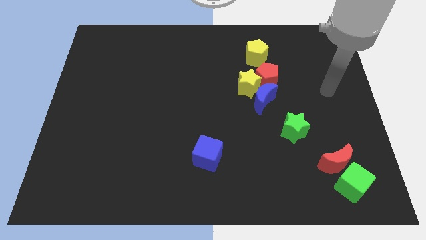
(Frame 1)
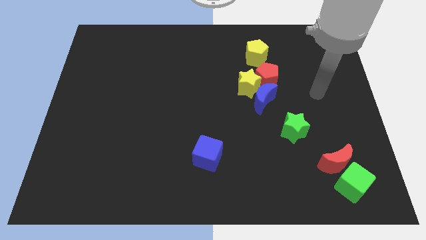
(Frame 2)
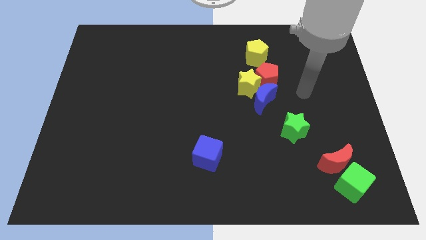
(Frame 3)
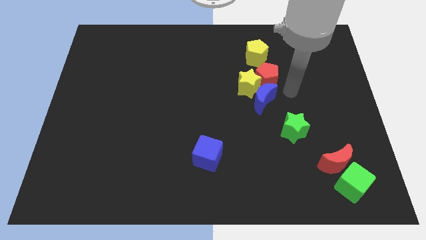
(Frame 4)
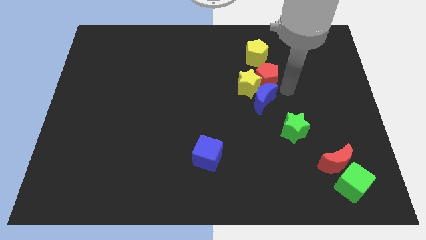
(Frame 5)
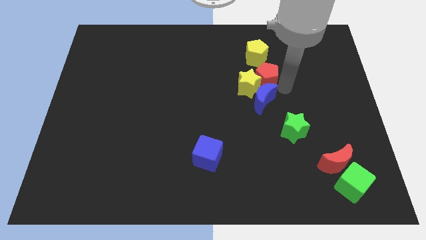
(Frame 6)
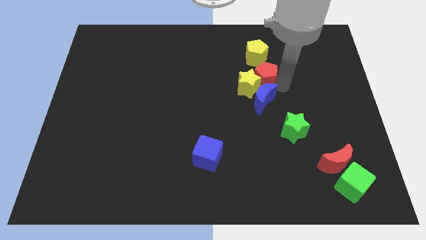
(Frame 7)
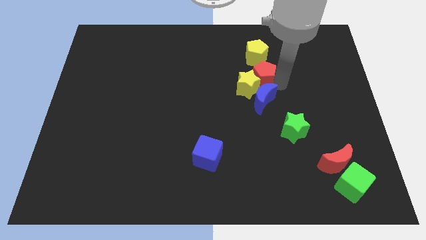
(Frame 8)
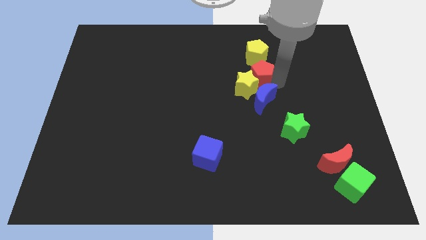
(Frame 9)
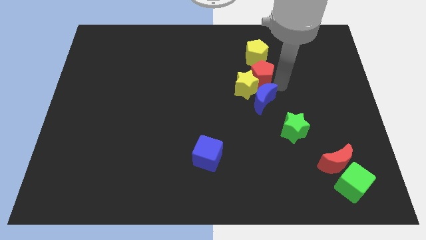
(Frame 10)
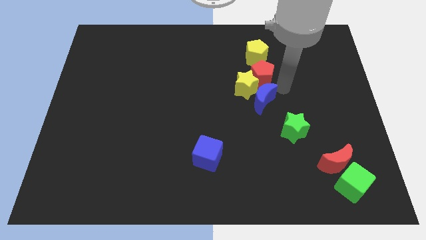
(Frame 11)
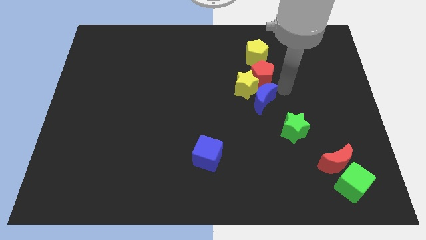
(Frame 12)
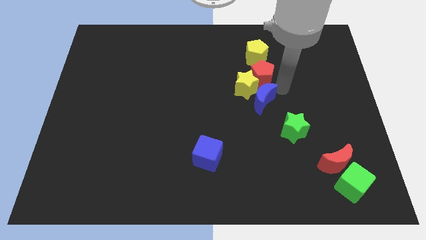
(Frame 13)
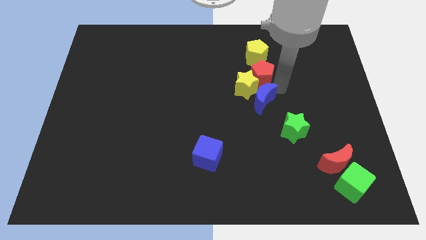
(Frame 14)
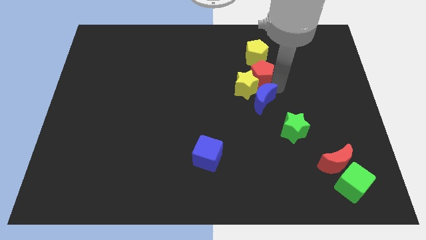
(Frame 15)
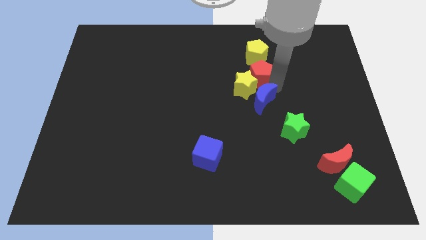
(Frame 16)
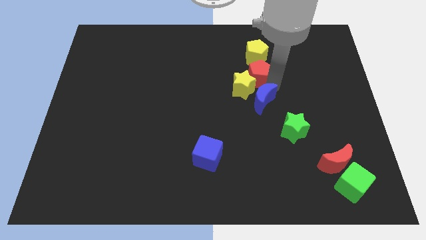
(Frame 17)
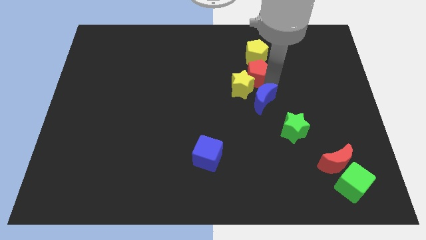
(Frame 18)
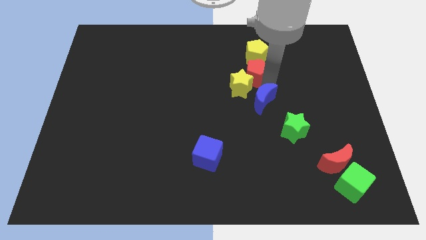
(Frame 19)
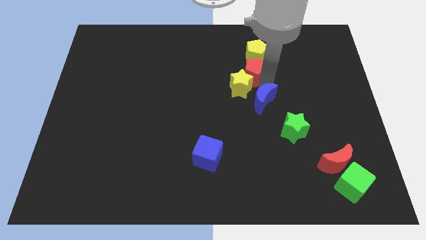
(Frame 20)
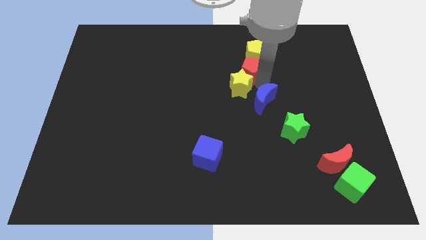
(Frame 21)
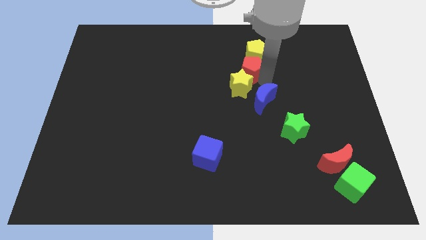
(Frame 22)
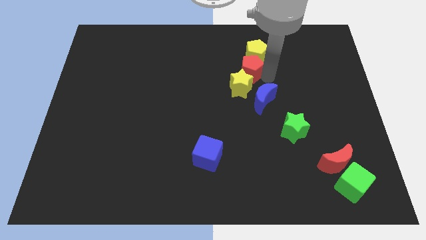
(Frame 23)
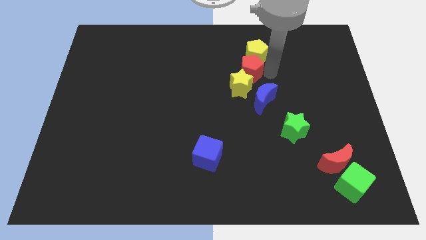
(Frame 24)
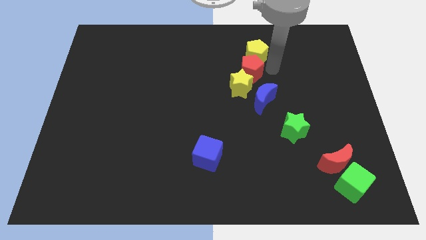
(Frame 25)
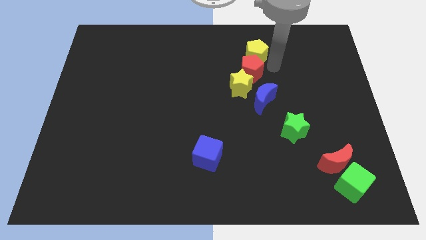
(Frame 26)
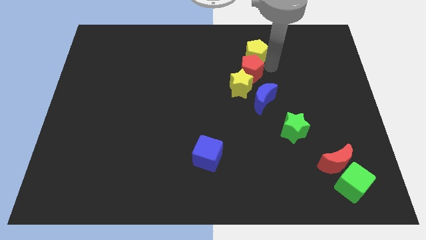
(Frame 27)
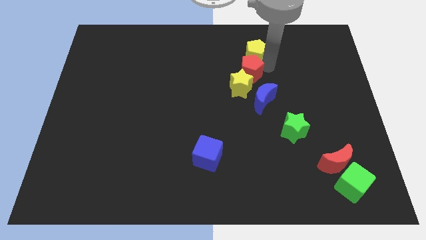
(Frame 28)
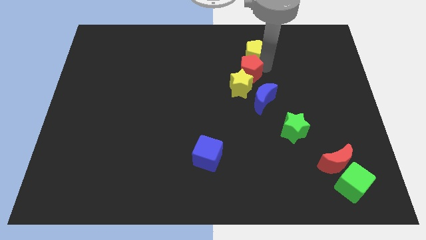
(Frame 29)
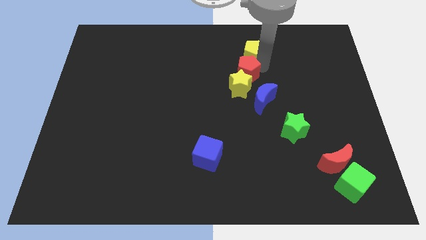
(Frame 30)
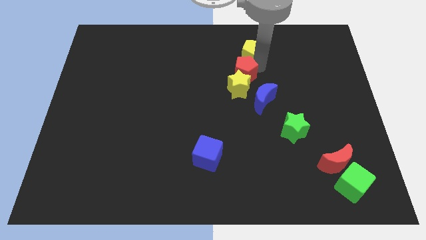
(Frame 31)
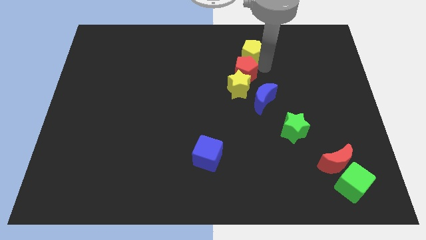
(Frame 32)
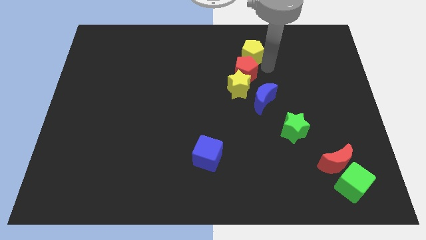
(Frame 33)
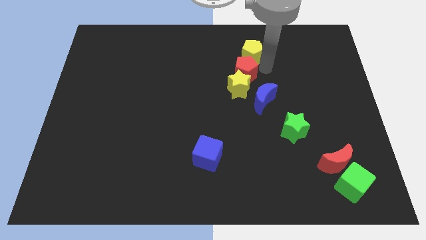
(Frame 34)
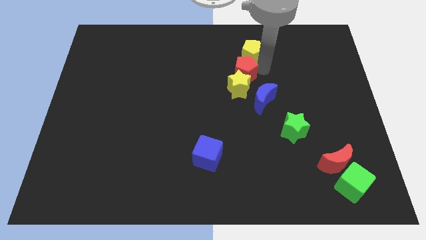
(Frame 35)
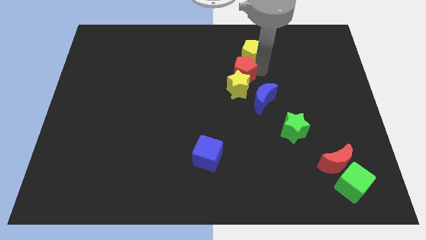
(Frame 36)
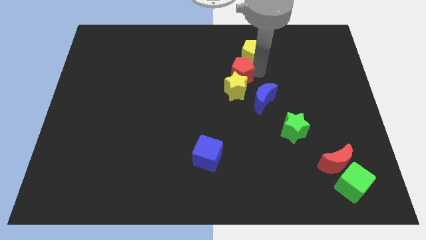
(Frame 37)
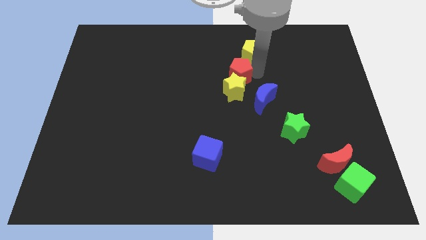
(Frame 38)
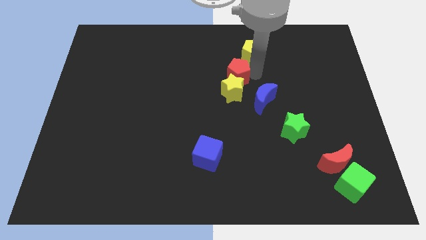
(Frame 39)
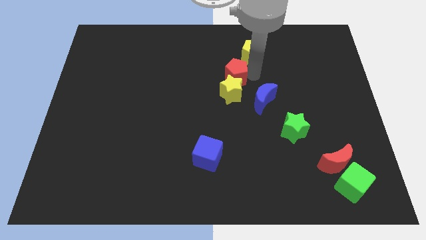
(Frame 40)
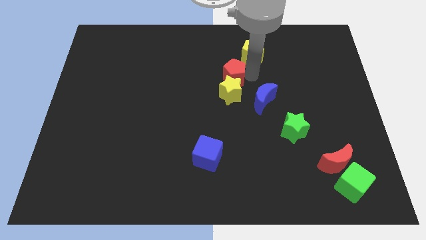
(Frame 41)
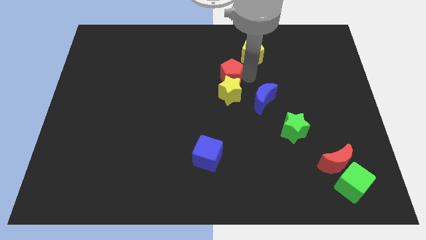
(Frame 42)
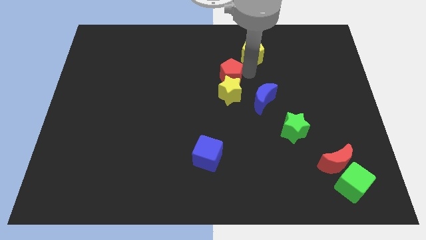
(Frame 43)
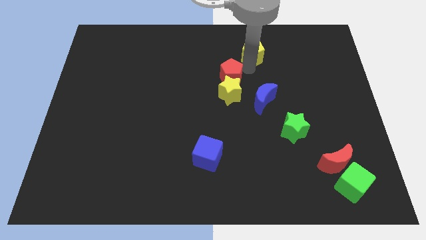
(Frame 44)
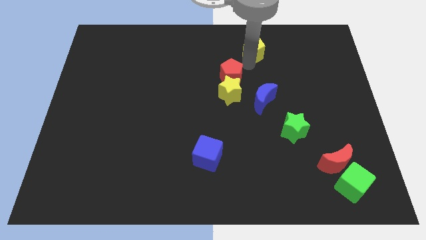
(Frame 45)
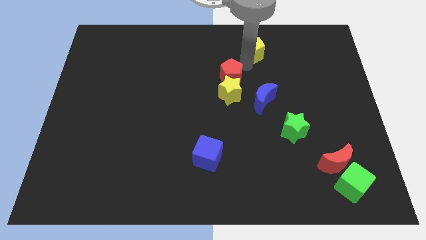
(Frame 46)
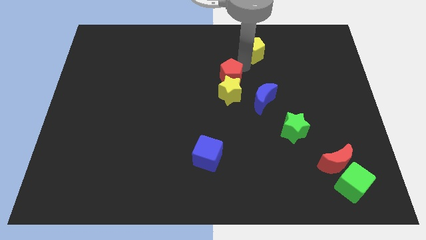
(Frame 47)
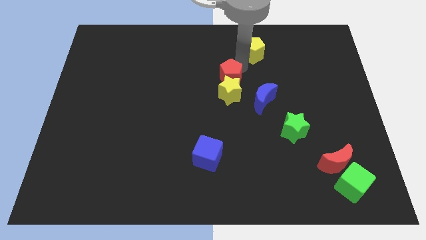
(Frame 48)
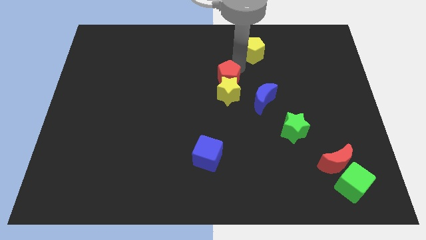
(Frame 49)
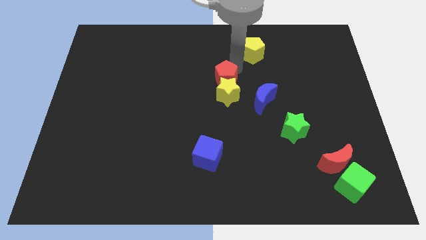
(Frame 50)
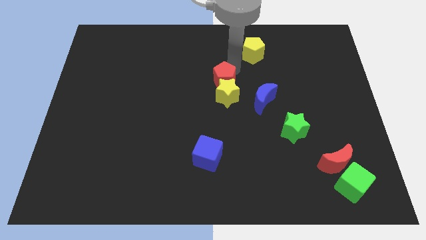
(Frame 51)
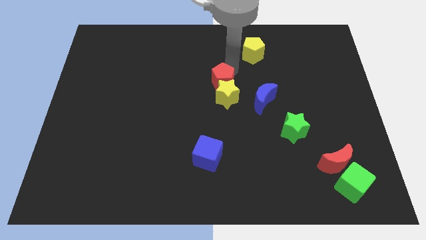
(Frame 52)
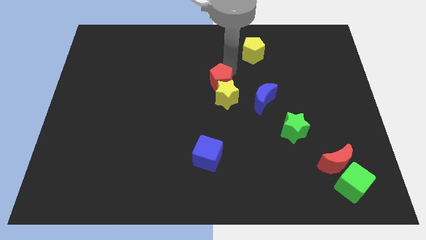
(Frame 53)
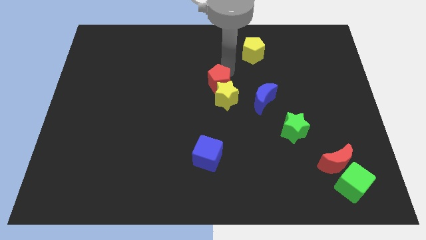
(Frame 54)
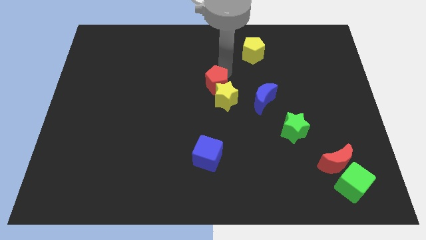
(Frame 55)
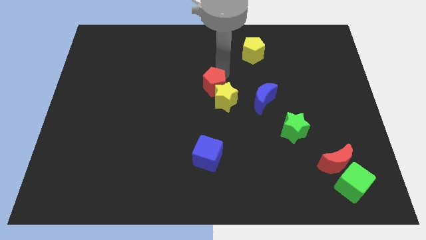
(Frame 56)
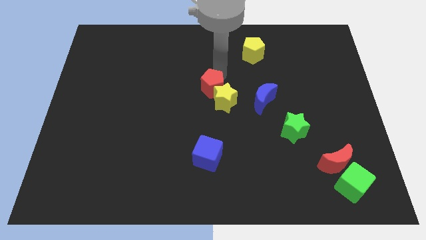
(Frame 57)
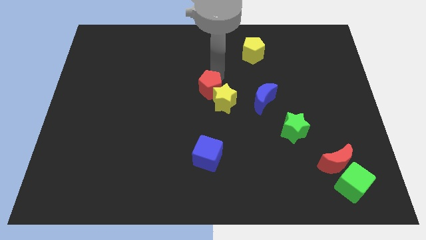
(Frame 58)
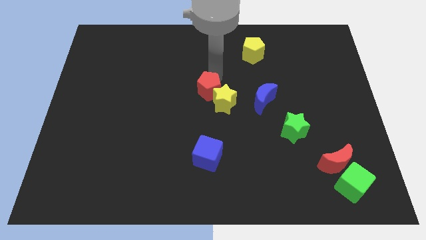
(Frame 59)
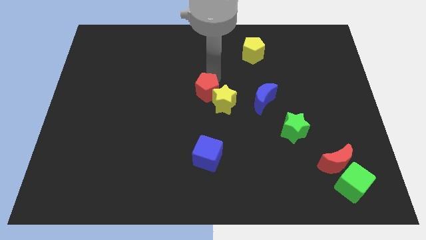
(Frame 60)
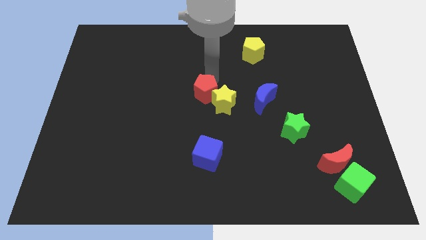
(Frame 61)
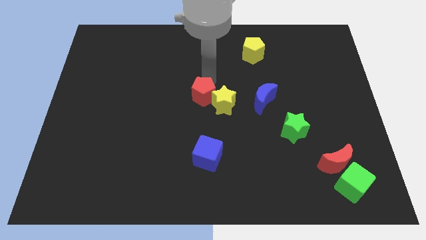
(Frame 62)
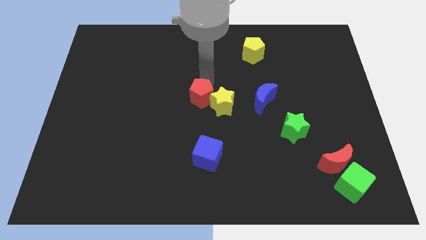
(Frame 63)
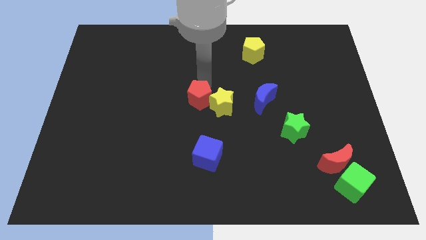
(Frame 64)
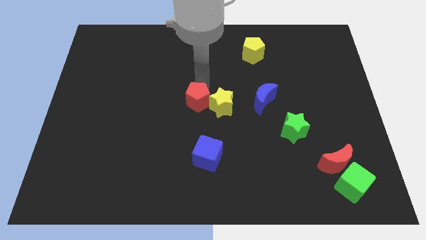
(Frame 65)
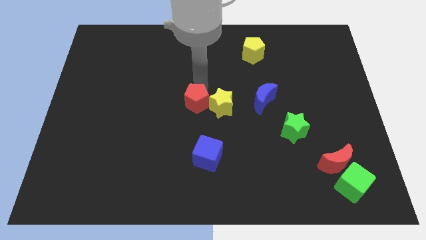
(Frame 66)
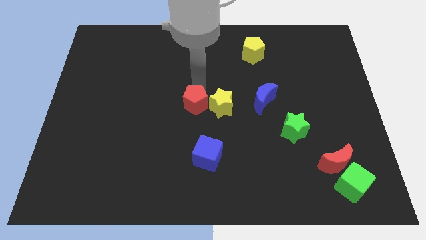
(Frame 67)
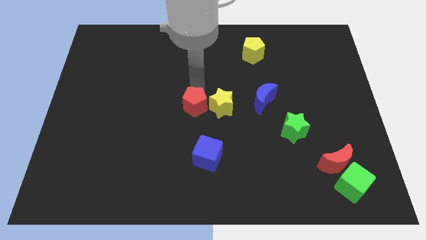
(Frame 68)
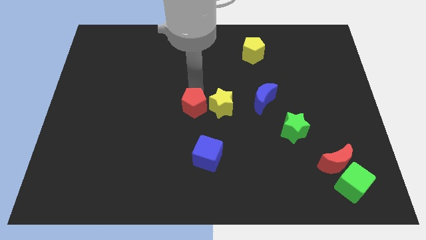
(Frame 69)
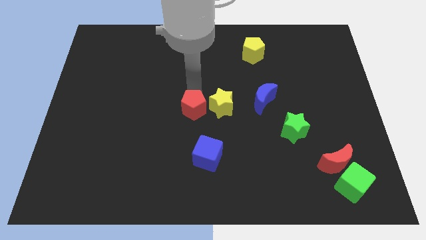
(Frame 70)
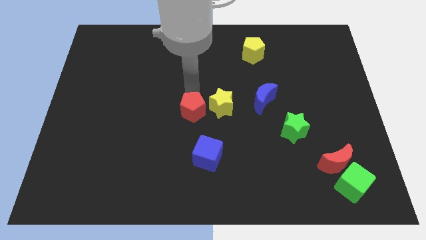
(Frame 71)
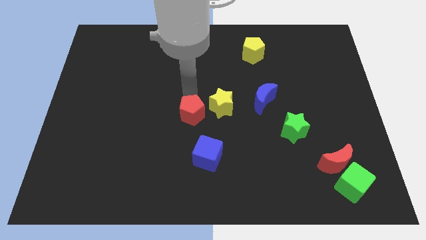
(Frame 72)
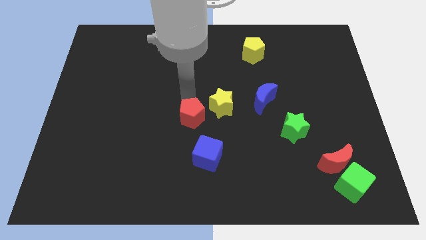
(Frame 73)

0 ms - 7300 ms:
move the red pentagon diagonally downwards and to the left

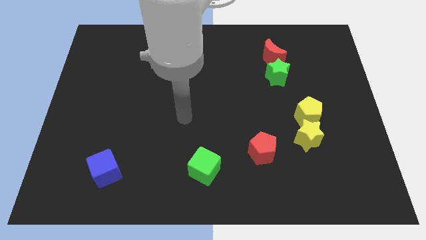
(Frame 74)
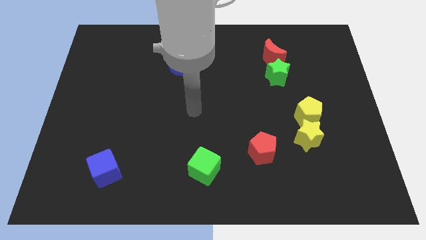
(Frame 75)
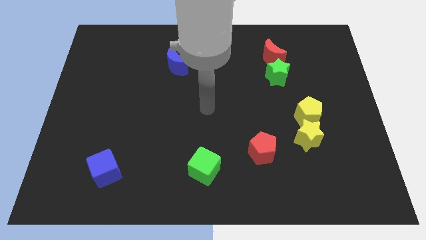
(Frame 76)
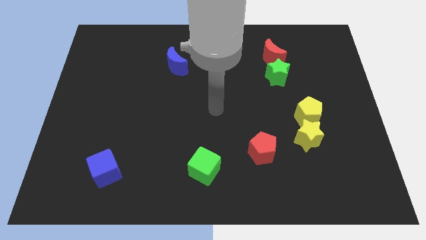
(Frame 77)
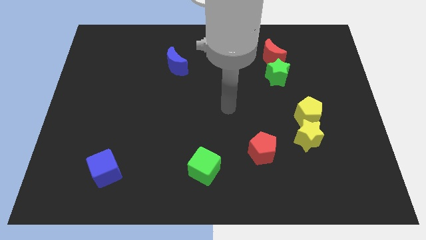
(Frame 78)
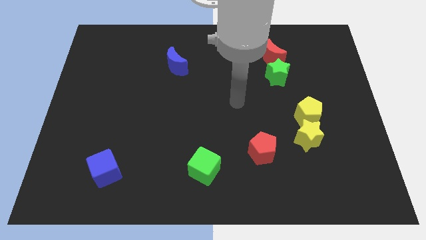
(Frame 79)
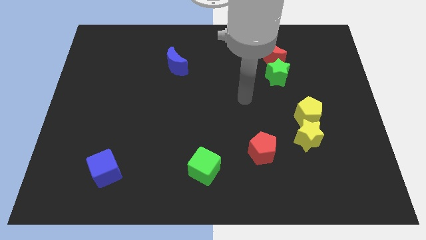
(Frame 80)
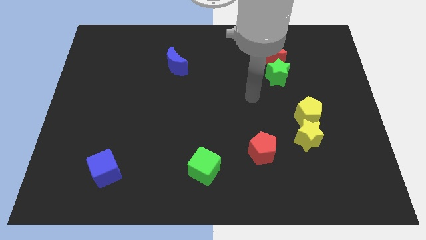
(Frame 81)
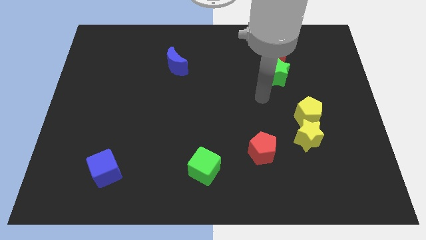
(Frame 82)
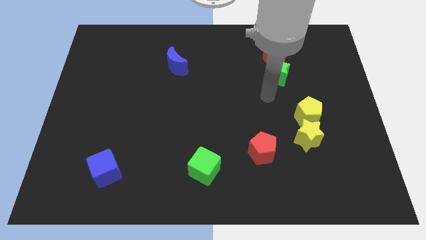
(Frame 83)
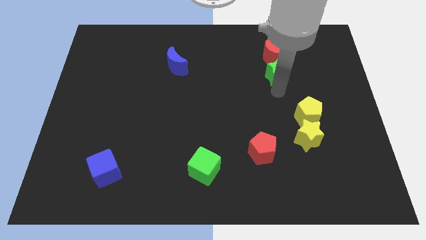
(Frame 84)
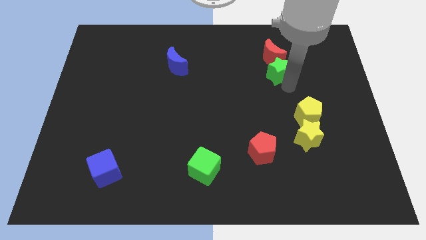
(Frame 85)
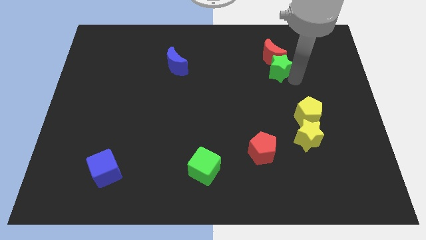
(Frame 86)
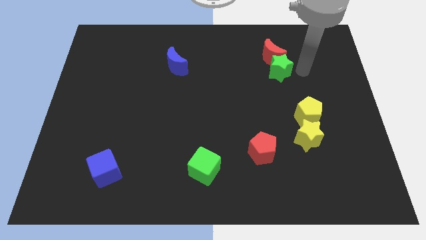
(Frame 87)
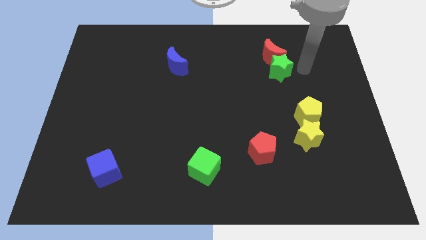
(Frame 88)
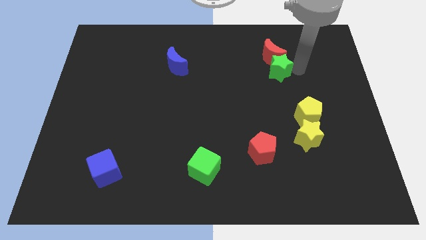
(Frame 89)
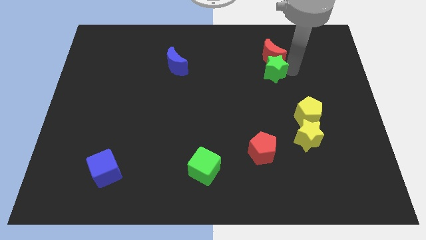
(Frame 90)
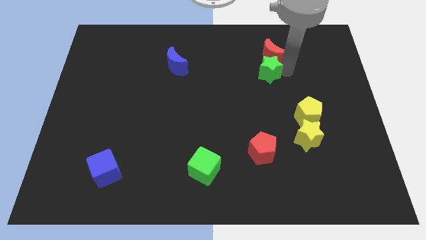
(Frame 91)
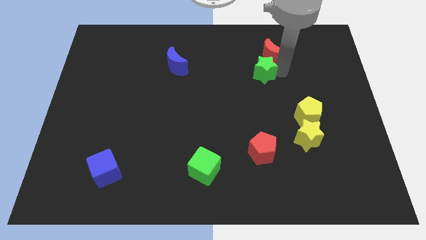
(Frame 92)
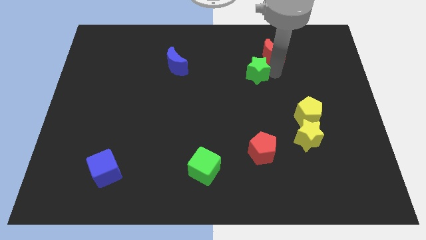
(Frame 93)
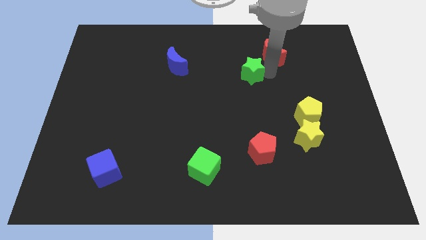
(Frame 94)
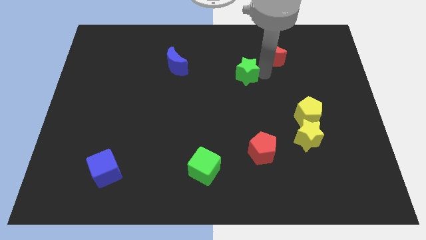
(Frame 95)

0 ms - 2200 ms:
slightly push the green star to the left
